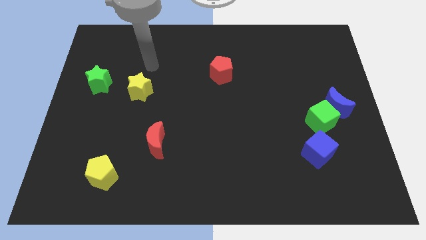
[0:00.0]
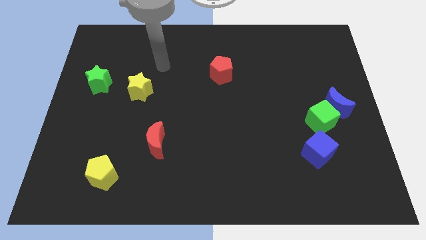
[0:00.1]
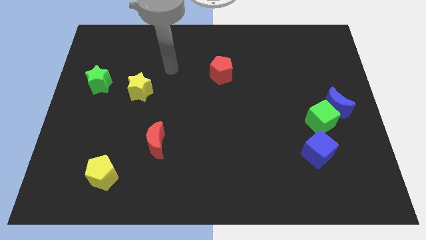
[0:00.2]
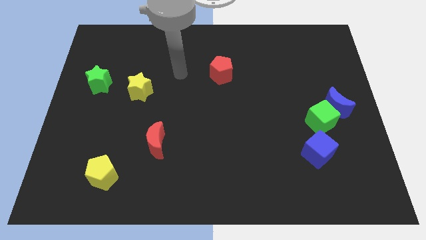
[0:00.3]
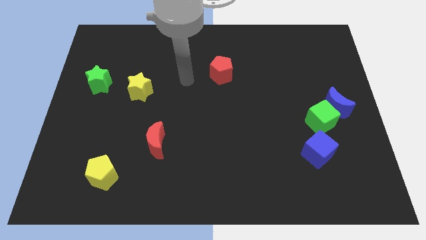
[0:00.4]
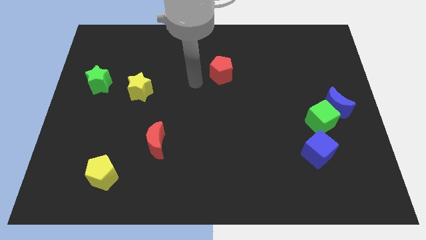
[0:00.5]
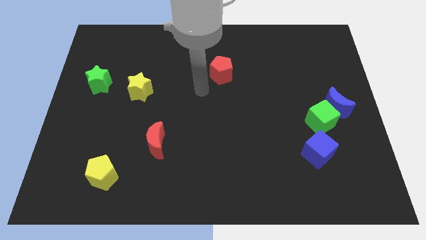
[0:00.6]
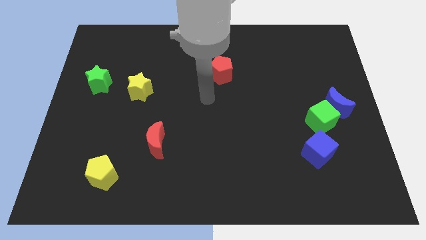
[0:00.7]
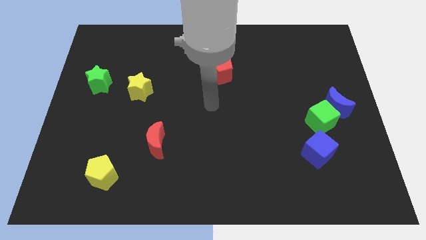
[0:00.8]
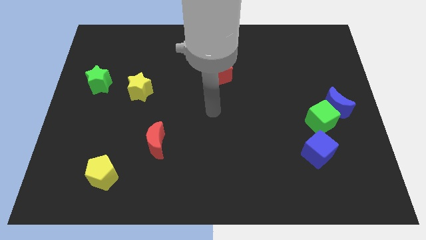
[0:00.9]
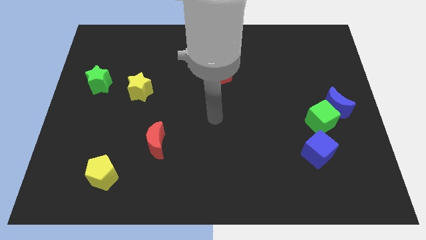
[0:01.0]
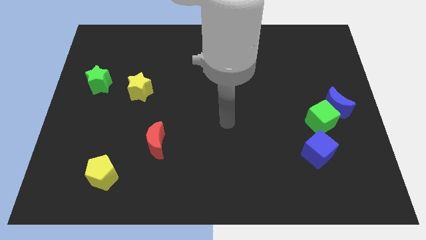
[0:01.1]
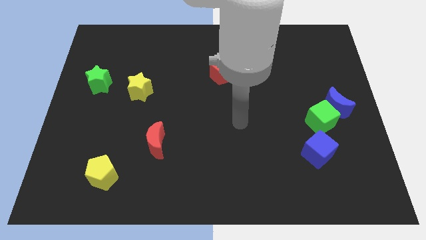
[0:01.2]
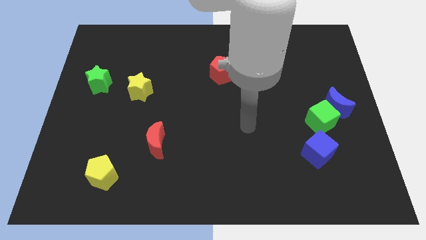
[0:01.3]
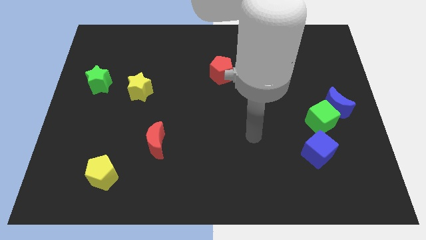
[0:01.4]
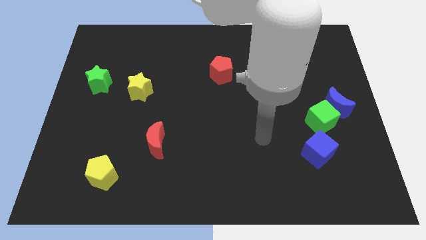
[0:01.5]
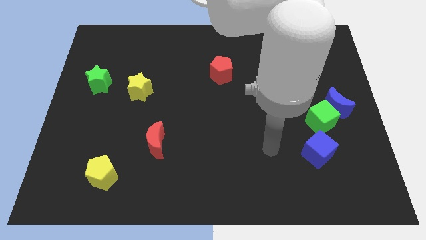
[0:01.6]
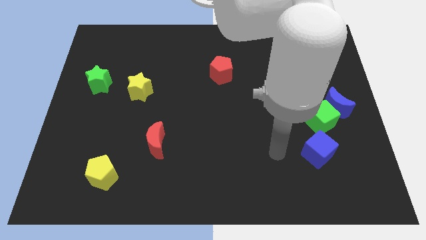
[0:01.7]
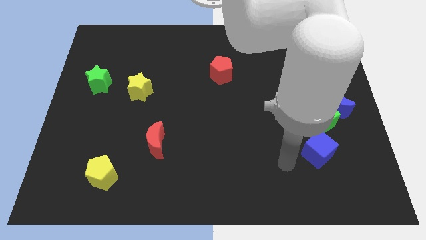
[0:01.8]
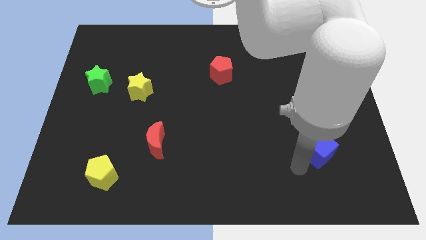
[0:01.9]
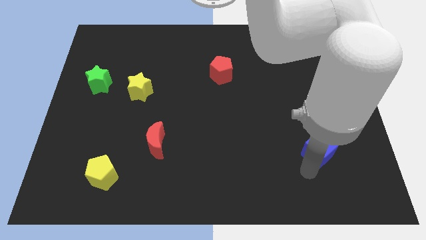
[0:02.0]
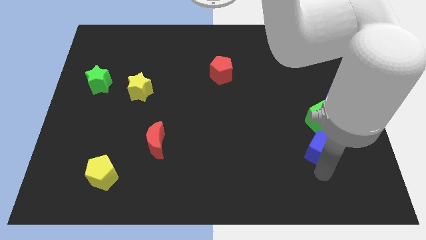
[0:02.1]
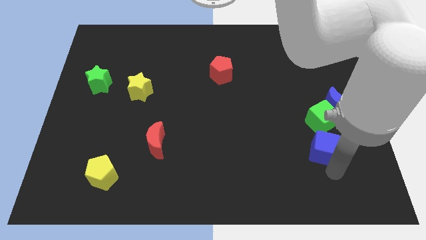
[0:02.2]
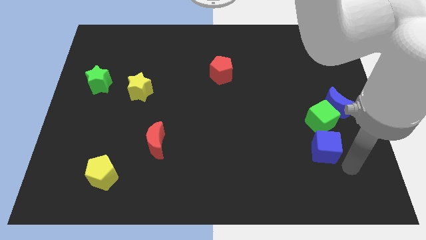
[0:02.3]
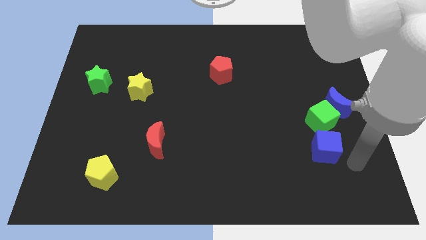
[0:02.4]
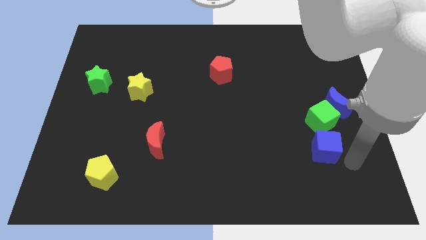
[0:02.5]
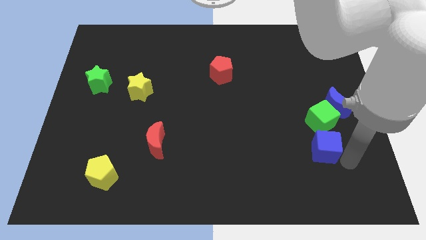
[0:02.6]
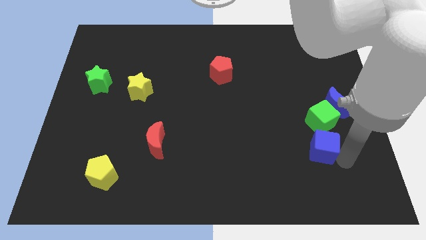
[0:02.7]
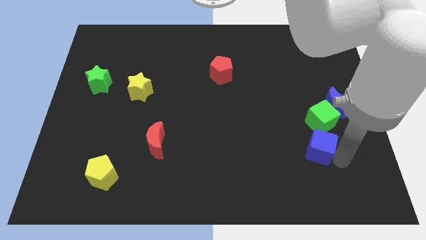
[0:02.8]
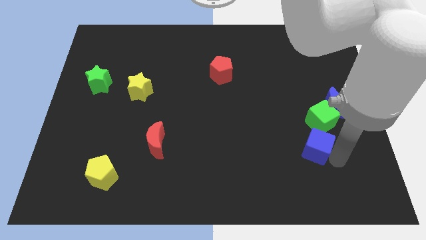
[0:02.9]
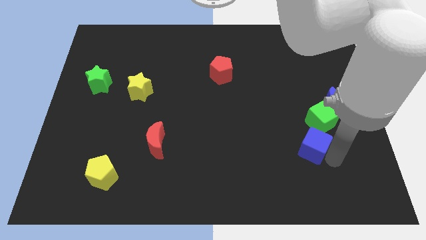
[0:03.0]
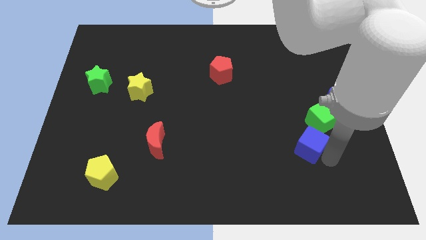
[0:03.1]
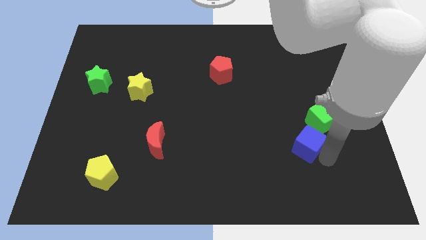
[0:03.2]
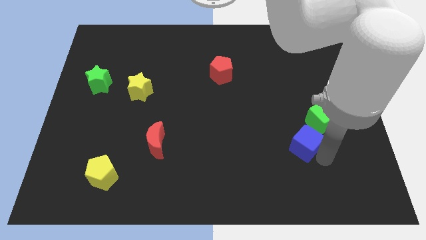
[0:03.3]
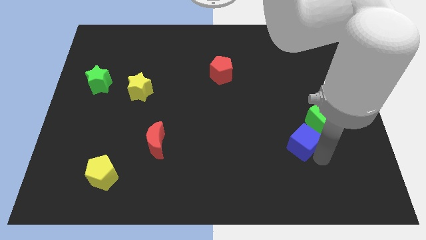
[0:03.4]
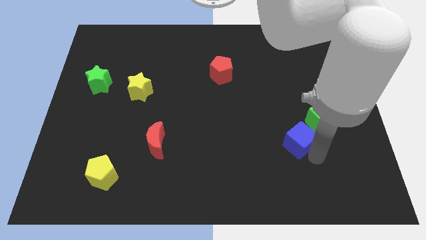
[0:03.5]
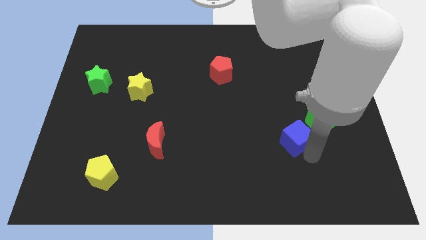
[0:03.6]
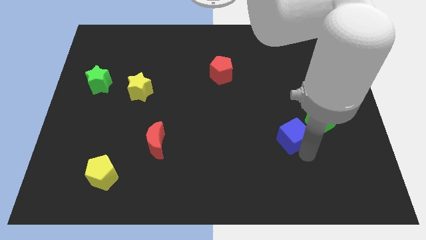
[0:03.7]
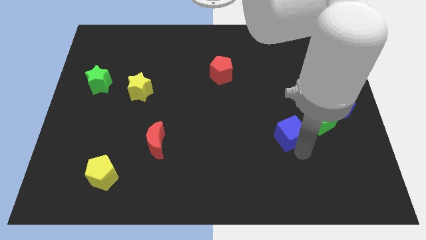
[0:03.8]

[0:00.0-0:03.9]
slightly push the blue cube up and to the left

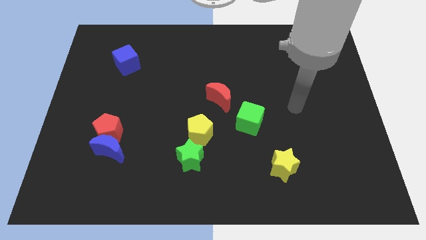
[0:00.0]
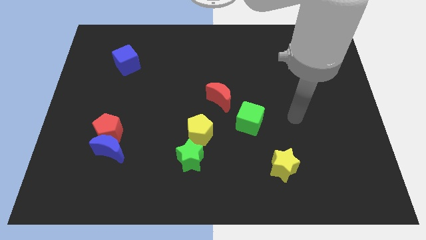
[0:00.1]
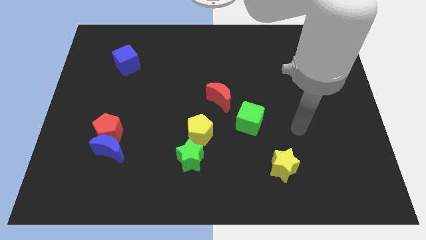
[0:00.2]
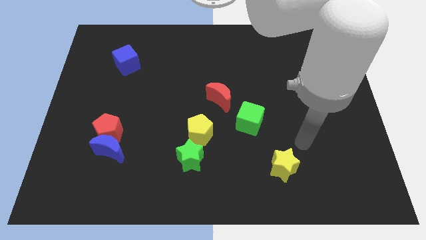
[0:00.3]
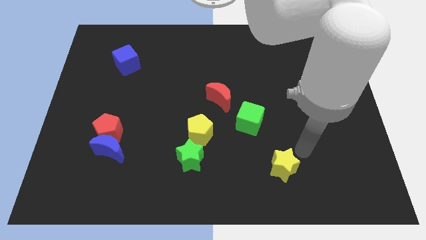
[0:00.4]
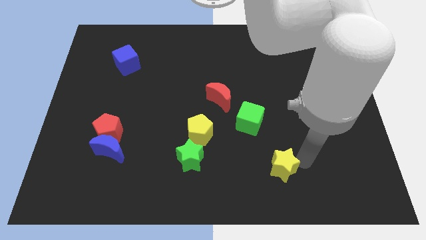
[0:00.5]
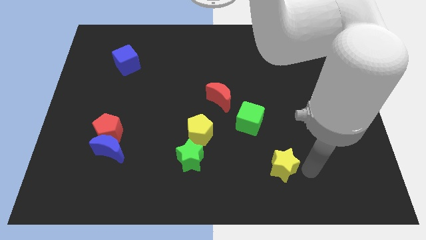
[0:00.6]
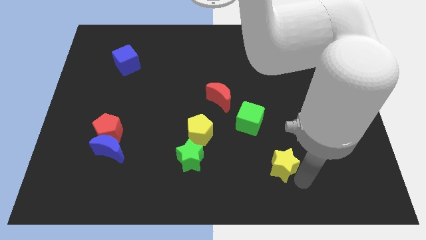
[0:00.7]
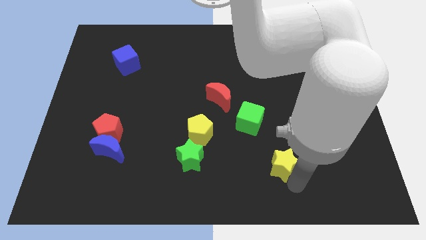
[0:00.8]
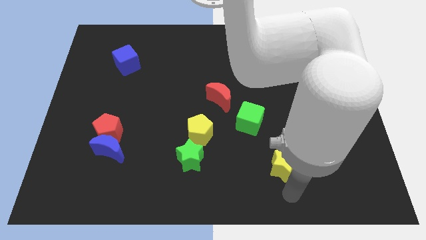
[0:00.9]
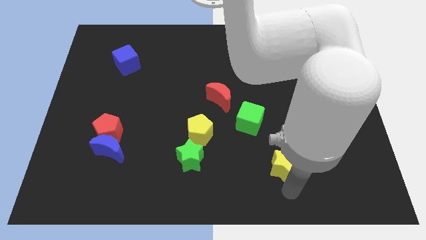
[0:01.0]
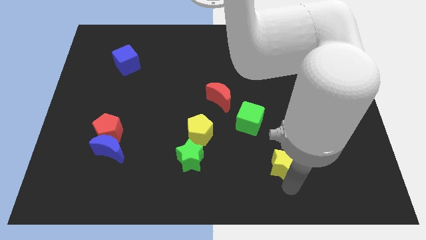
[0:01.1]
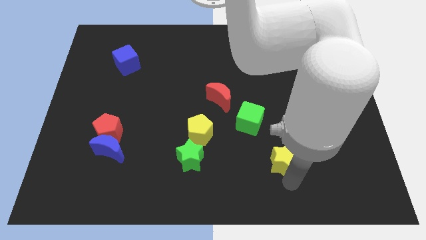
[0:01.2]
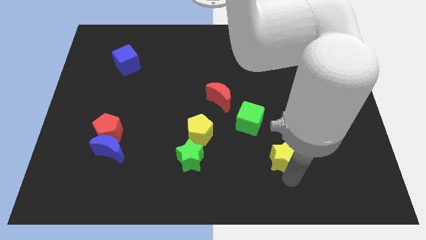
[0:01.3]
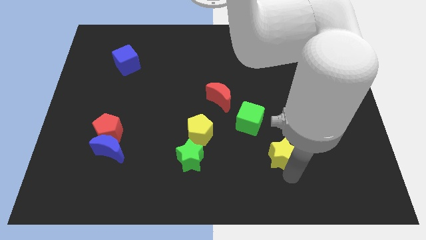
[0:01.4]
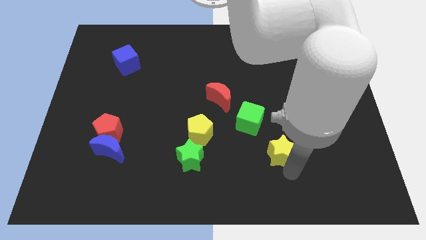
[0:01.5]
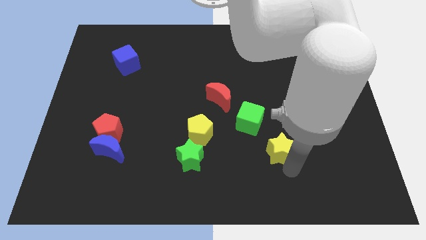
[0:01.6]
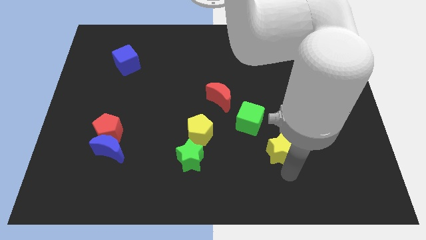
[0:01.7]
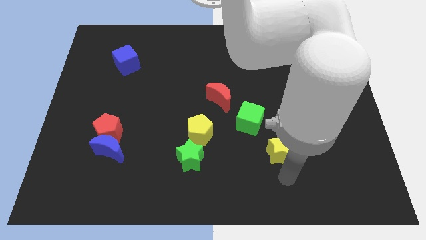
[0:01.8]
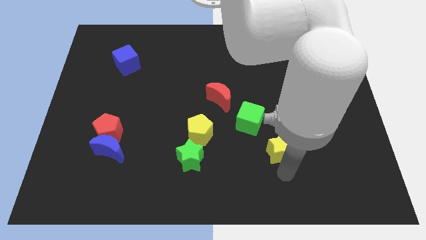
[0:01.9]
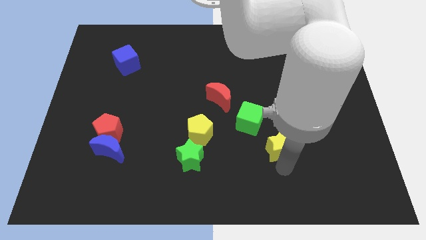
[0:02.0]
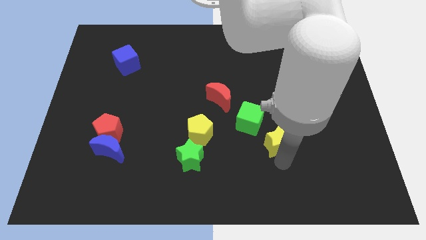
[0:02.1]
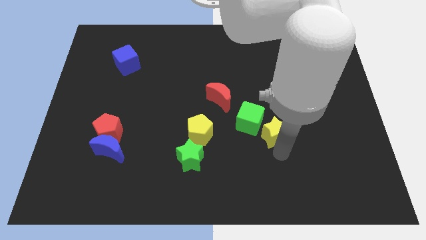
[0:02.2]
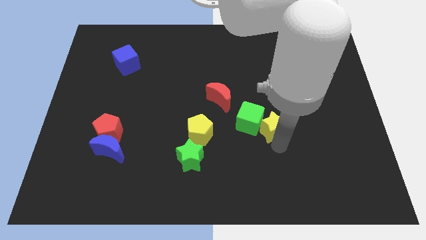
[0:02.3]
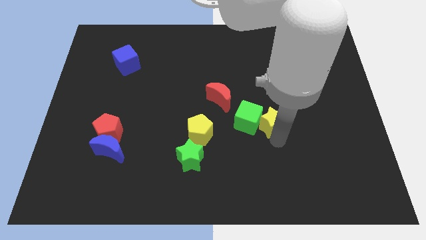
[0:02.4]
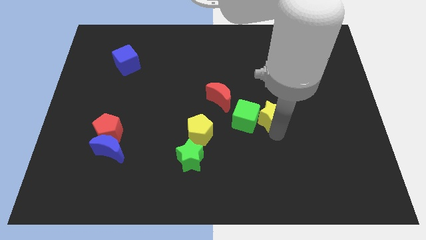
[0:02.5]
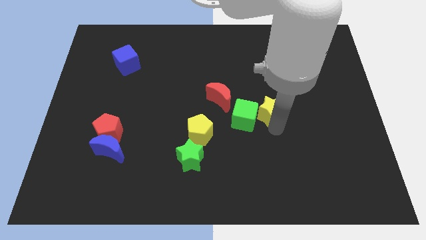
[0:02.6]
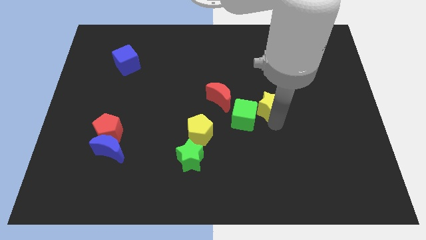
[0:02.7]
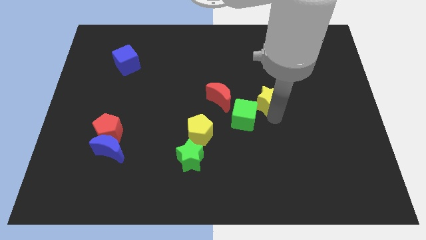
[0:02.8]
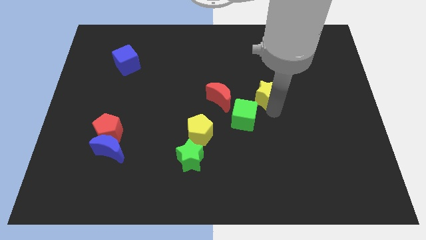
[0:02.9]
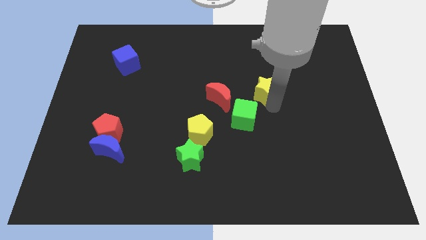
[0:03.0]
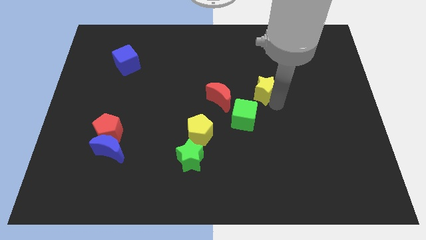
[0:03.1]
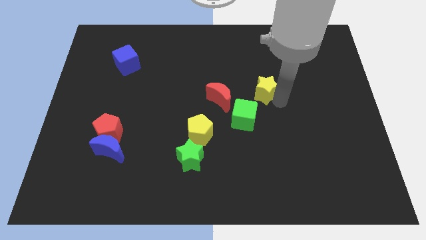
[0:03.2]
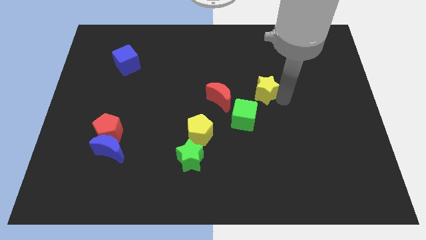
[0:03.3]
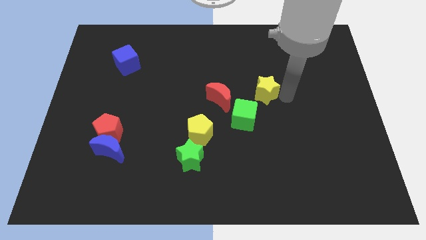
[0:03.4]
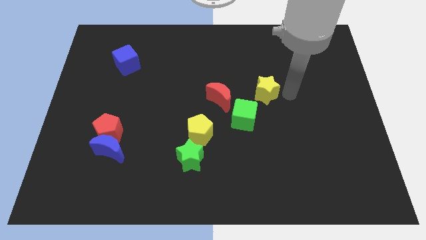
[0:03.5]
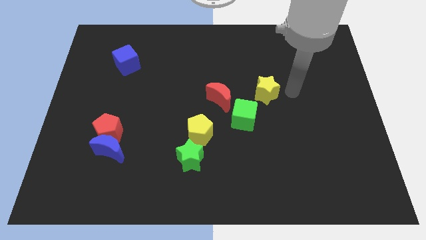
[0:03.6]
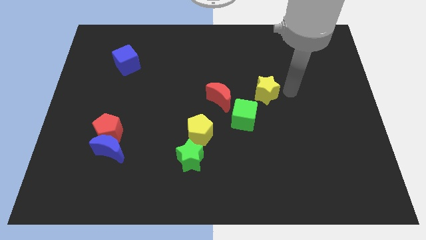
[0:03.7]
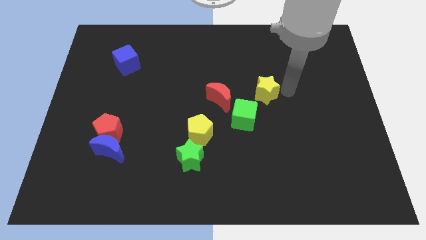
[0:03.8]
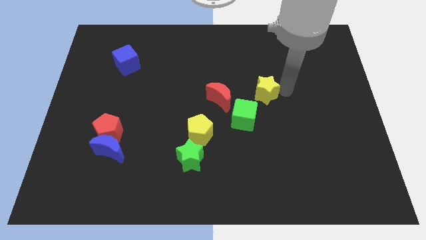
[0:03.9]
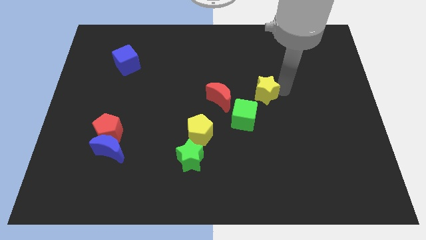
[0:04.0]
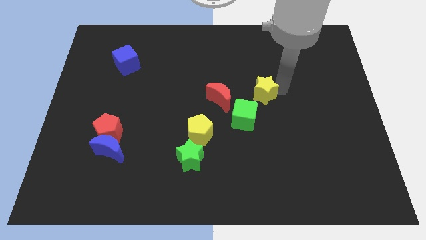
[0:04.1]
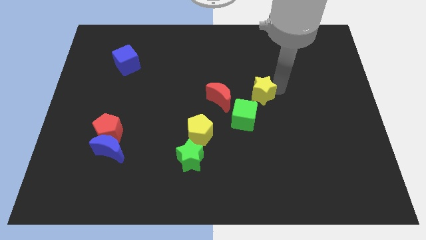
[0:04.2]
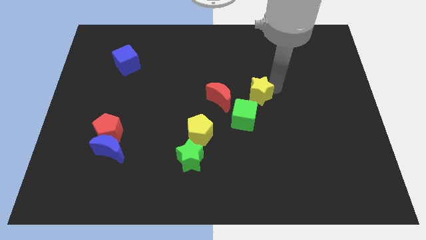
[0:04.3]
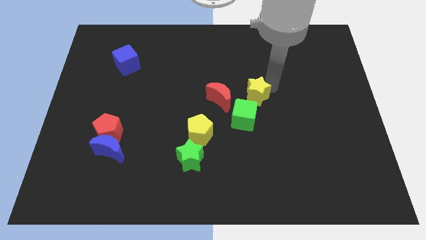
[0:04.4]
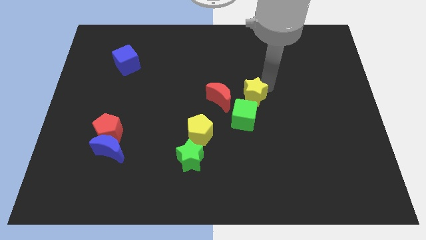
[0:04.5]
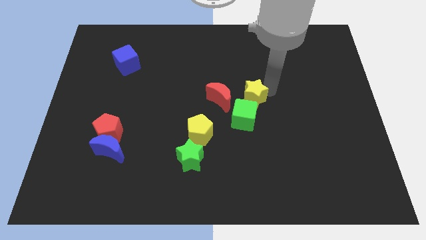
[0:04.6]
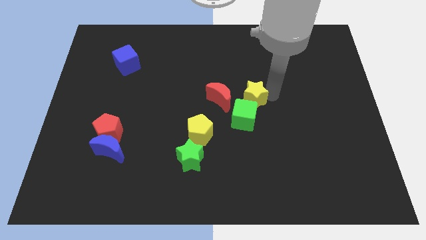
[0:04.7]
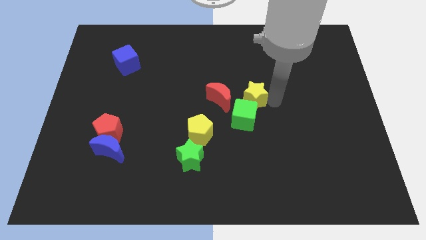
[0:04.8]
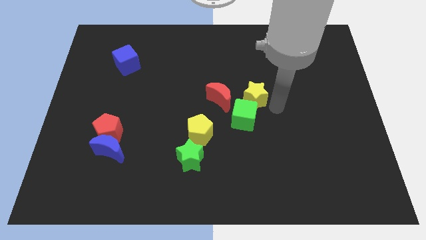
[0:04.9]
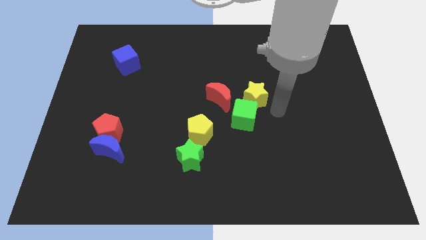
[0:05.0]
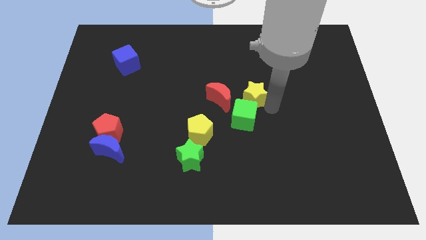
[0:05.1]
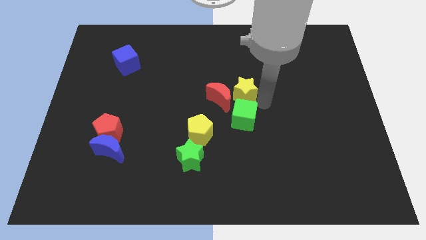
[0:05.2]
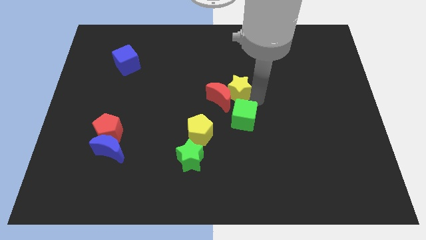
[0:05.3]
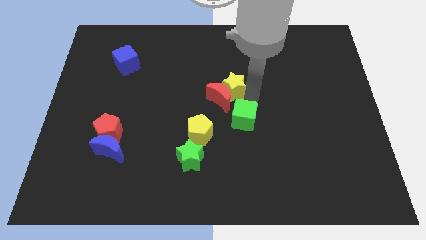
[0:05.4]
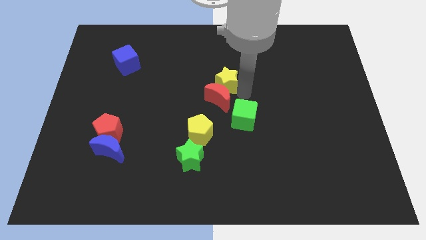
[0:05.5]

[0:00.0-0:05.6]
push the yellow star upwards and to the left
